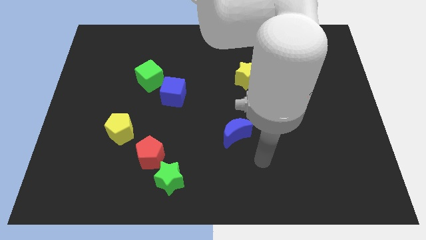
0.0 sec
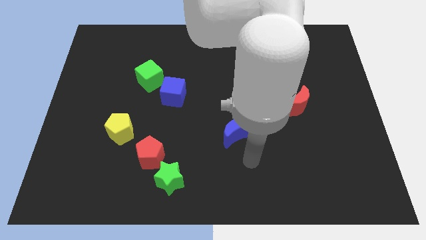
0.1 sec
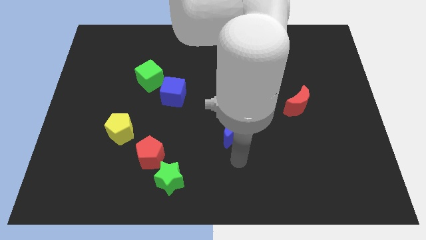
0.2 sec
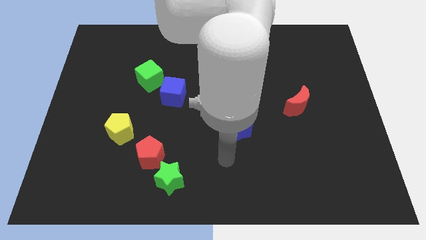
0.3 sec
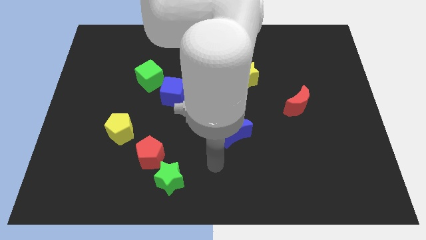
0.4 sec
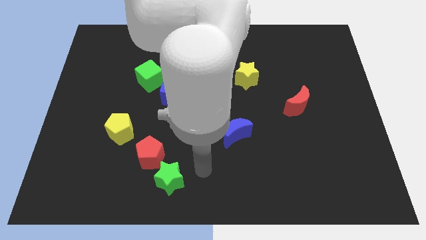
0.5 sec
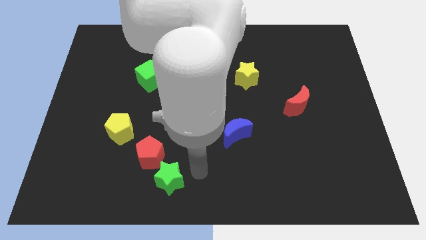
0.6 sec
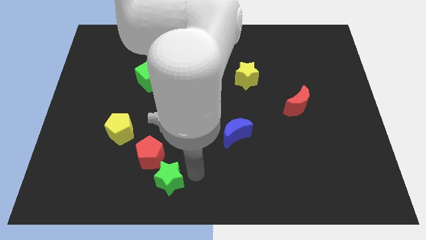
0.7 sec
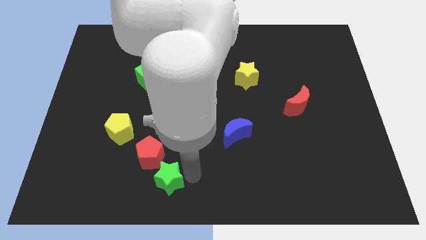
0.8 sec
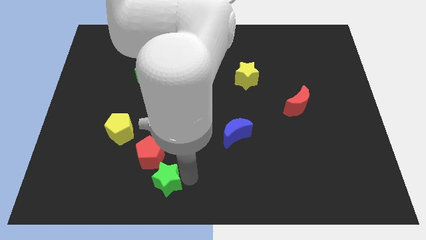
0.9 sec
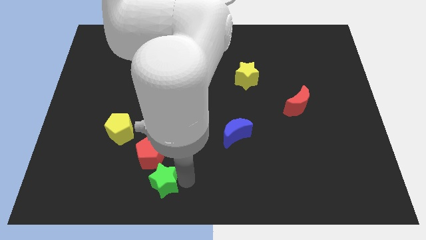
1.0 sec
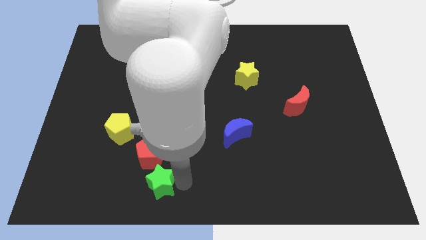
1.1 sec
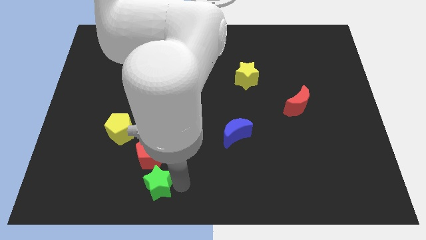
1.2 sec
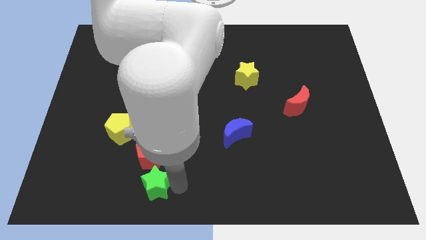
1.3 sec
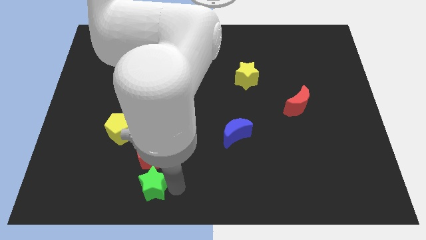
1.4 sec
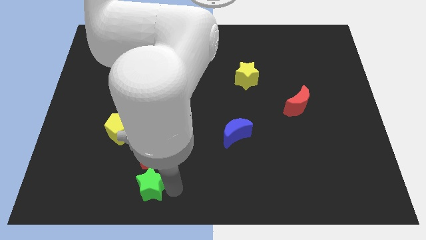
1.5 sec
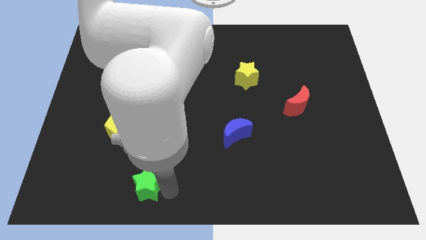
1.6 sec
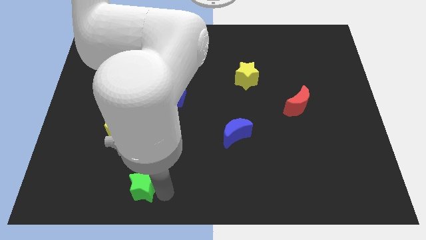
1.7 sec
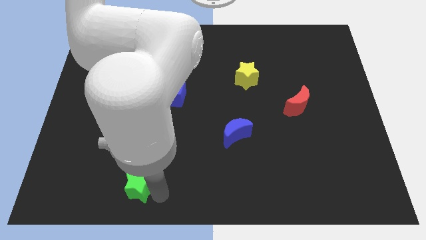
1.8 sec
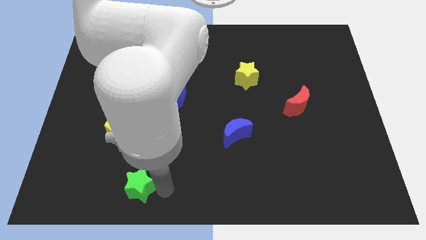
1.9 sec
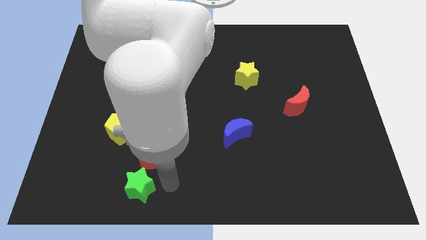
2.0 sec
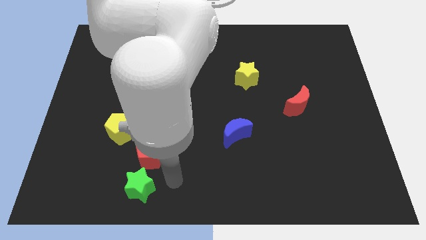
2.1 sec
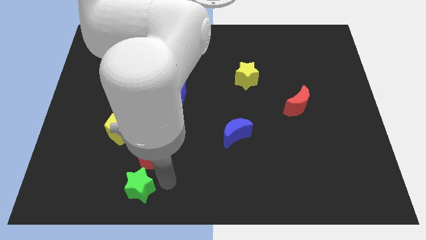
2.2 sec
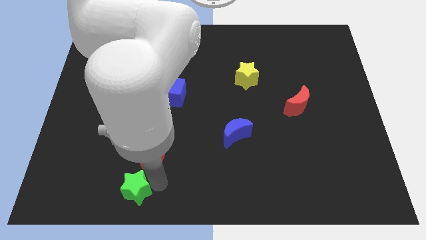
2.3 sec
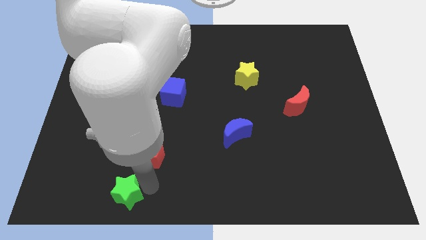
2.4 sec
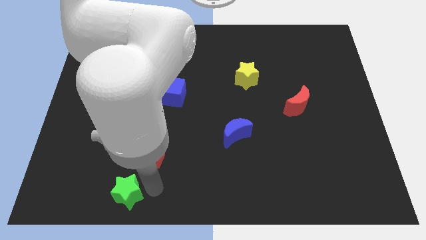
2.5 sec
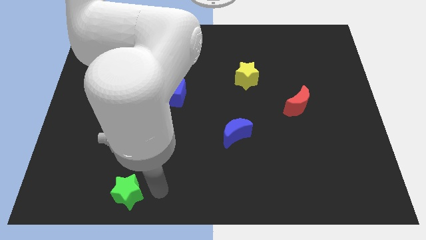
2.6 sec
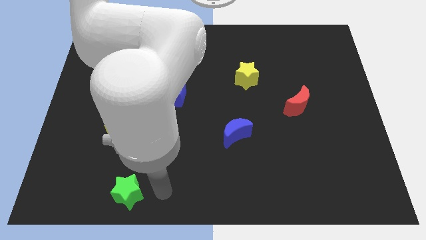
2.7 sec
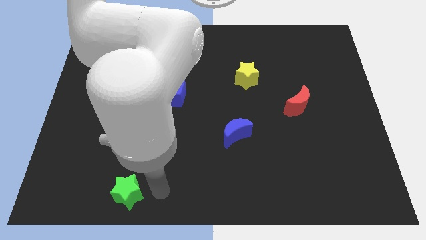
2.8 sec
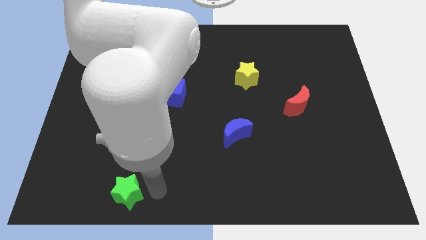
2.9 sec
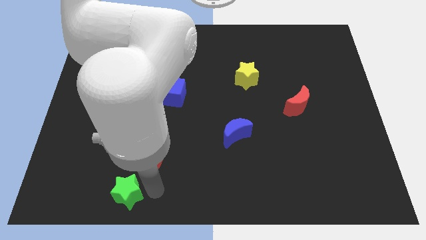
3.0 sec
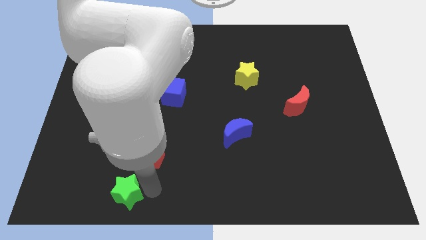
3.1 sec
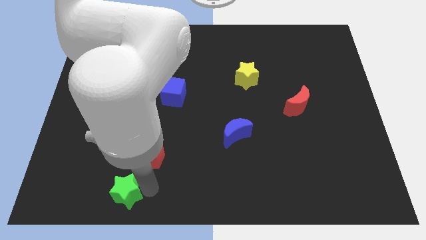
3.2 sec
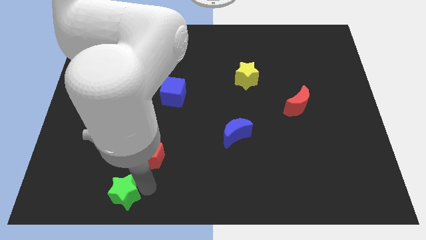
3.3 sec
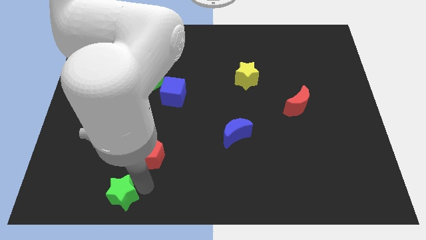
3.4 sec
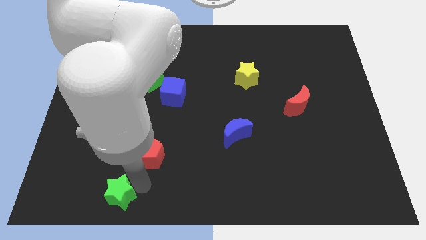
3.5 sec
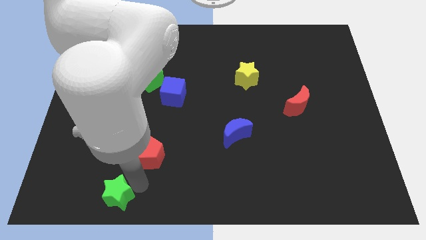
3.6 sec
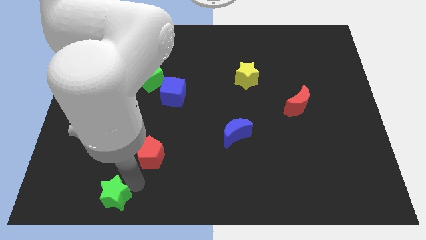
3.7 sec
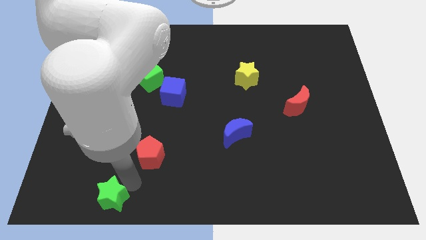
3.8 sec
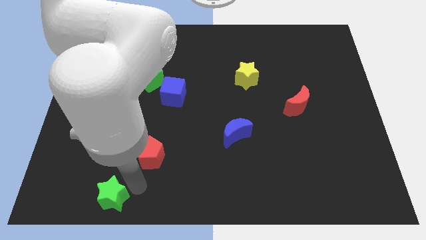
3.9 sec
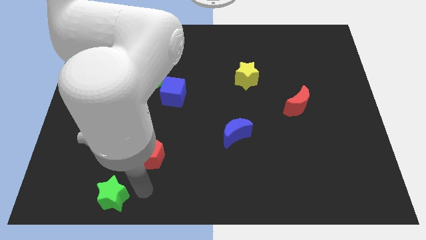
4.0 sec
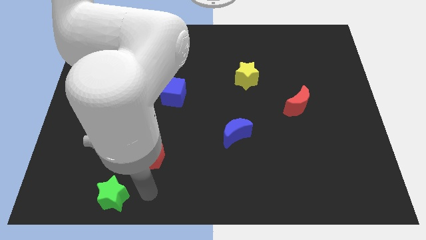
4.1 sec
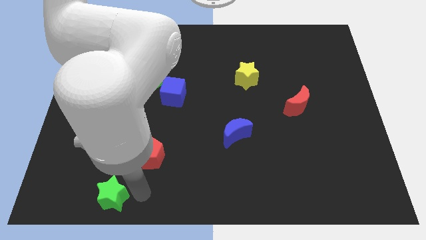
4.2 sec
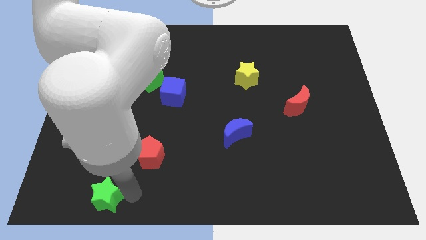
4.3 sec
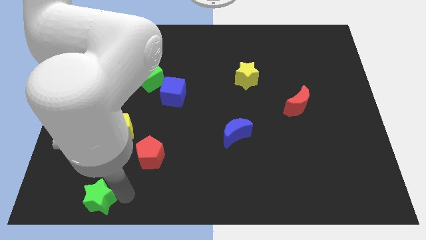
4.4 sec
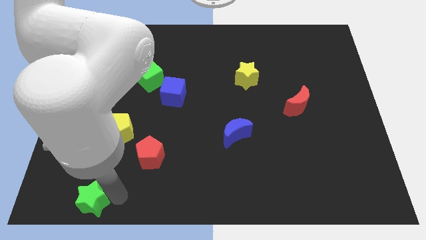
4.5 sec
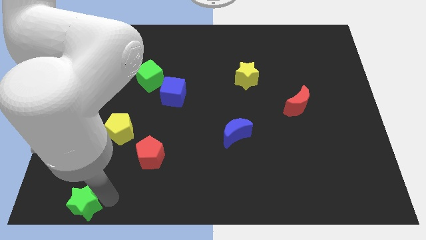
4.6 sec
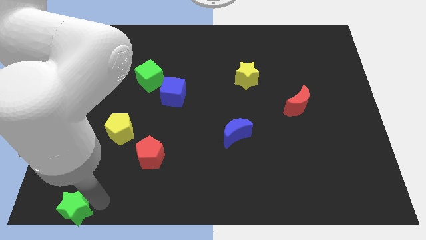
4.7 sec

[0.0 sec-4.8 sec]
move the green star to the bottom left corner

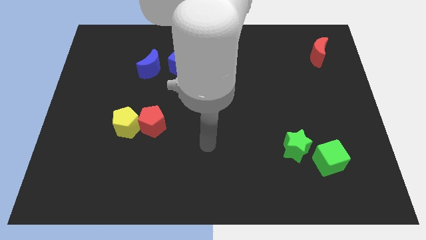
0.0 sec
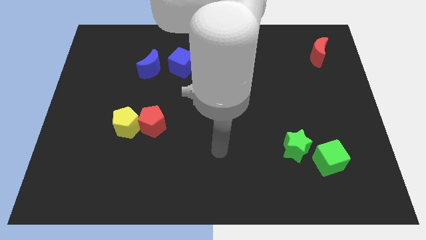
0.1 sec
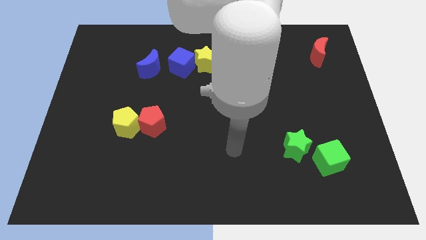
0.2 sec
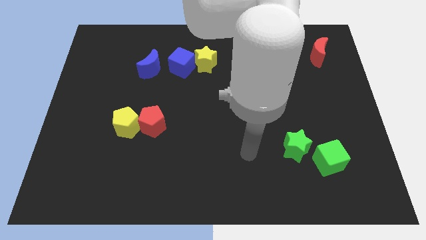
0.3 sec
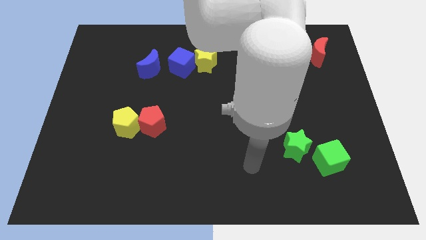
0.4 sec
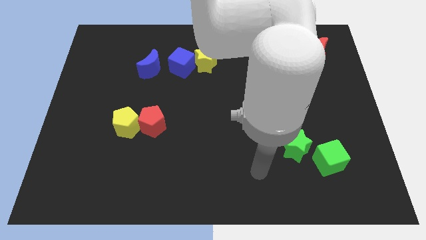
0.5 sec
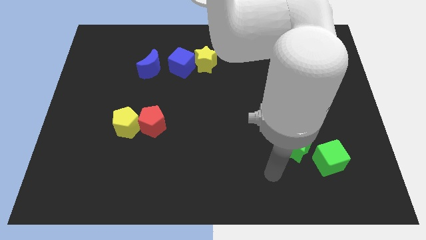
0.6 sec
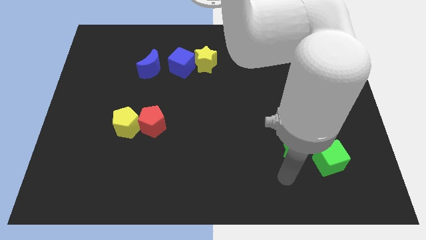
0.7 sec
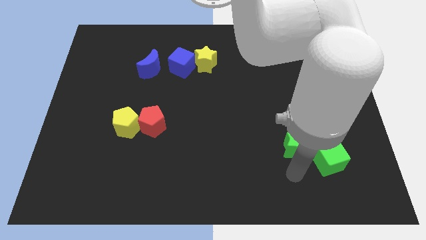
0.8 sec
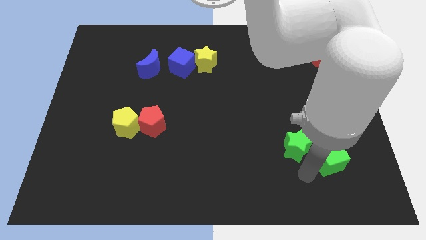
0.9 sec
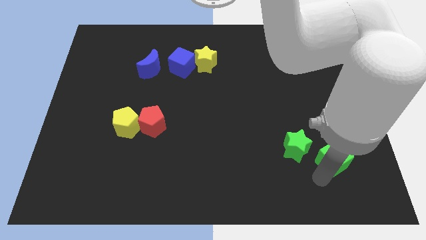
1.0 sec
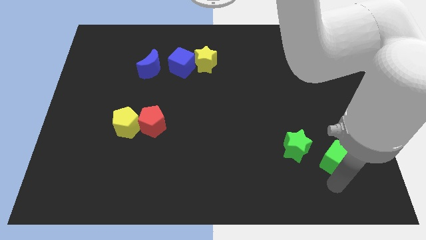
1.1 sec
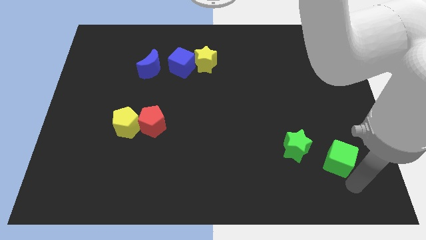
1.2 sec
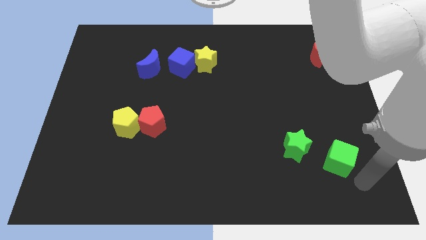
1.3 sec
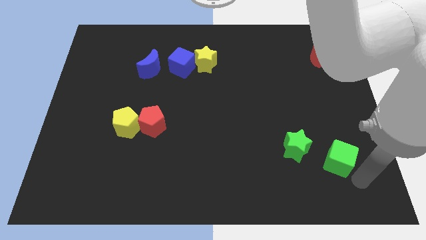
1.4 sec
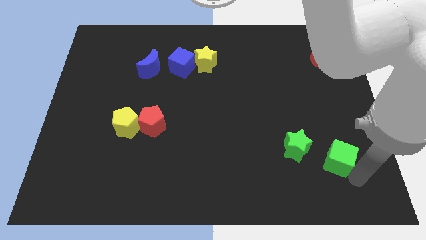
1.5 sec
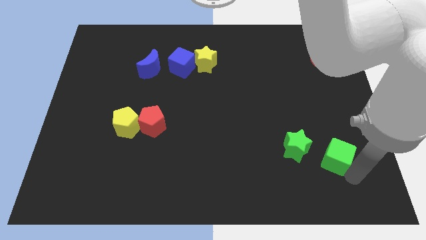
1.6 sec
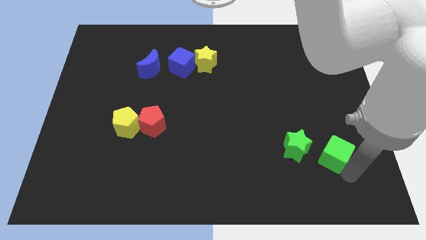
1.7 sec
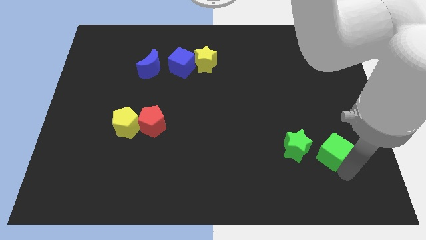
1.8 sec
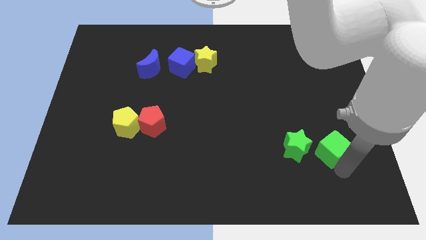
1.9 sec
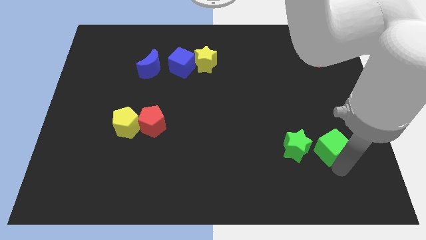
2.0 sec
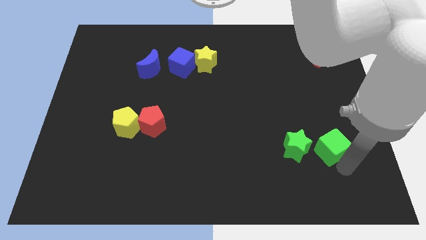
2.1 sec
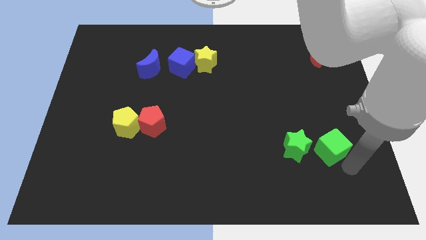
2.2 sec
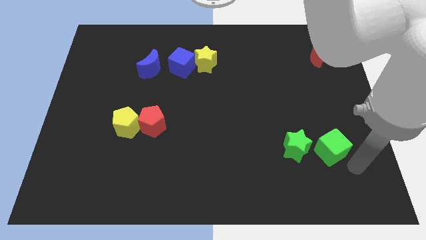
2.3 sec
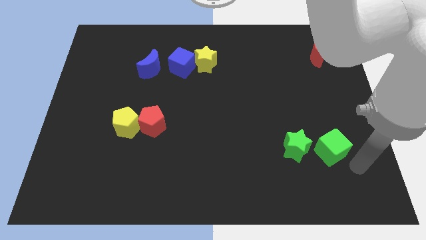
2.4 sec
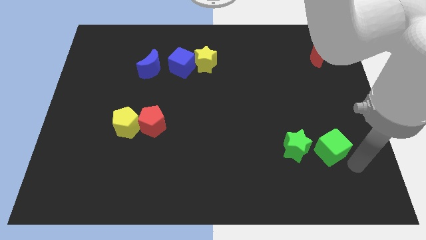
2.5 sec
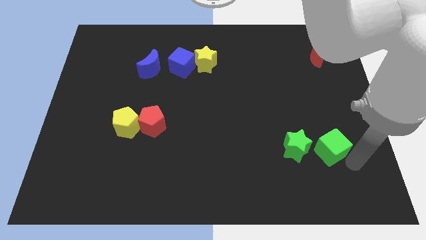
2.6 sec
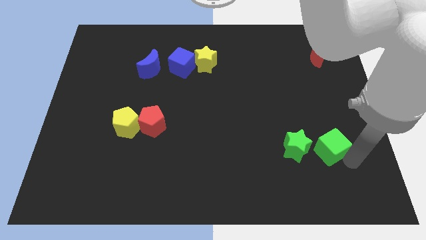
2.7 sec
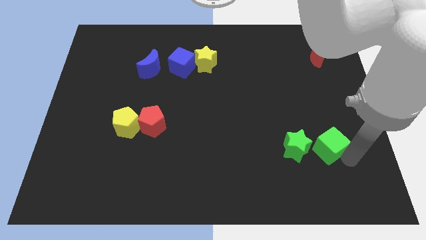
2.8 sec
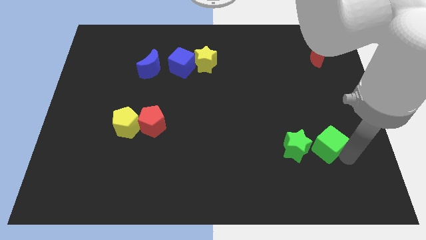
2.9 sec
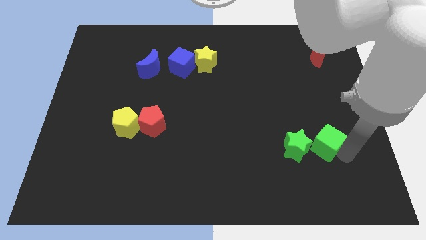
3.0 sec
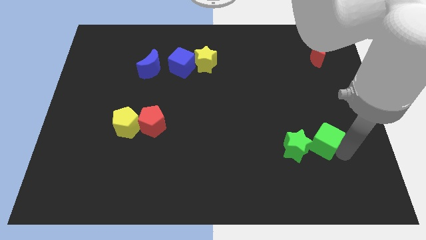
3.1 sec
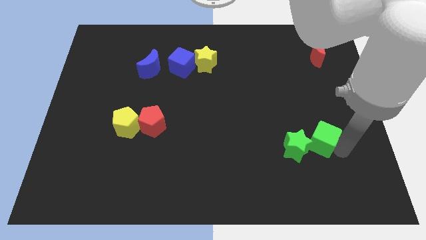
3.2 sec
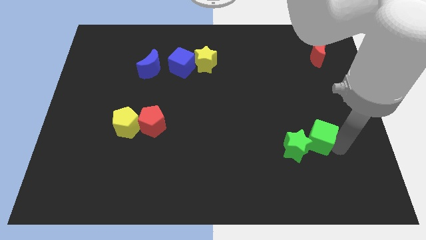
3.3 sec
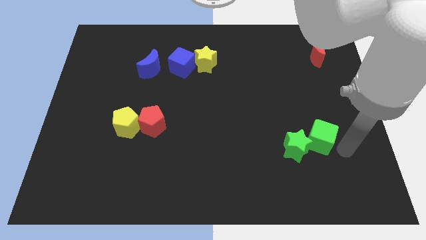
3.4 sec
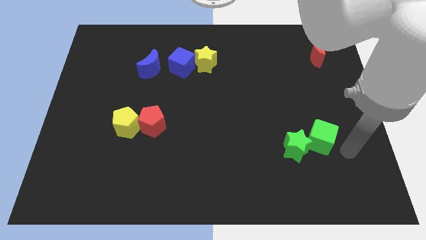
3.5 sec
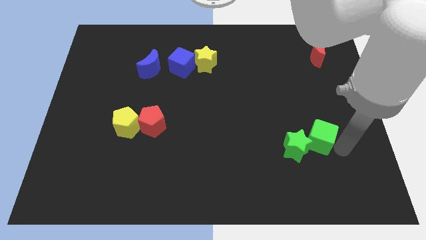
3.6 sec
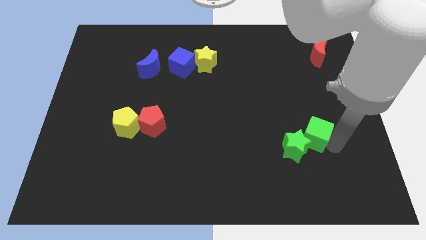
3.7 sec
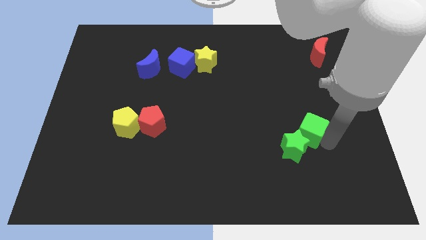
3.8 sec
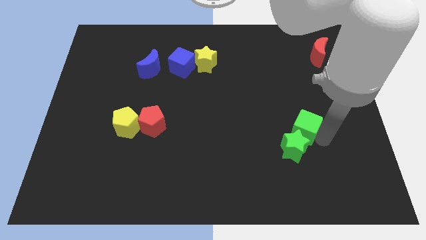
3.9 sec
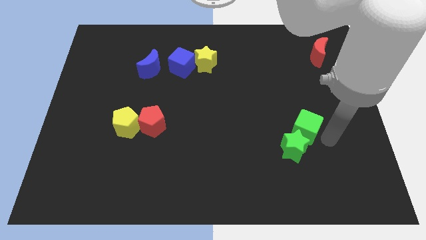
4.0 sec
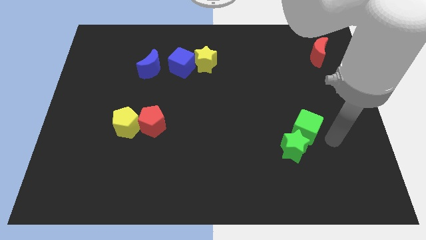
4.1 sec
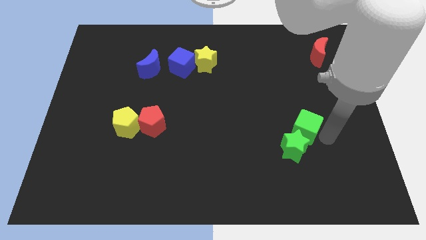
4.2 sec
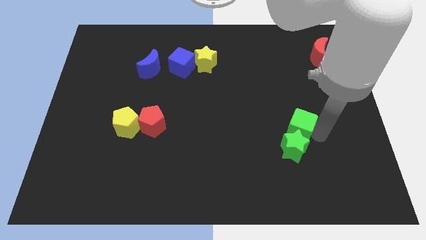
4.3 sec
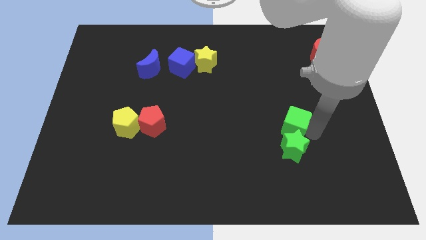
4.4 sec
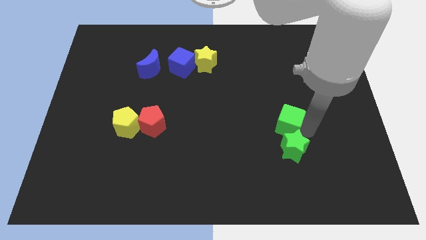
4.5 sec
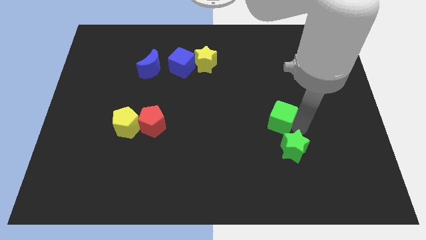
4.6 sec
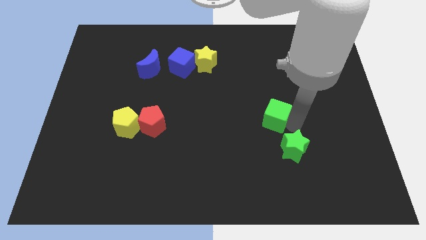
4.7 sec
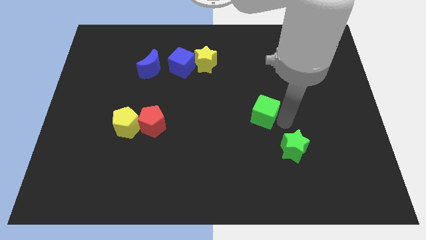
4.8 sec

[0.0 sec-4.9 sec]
move the green cube to the center of the board
